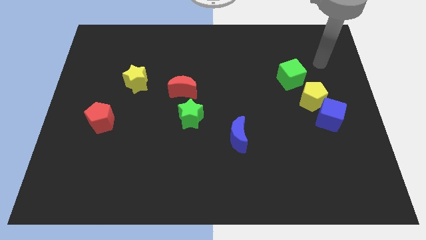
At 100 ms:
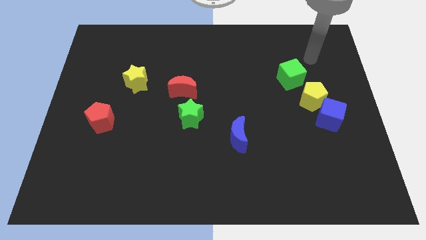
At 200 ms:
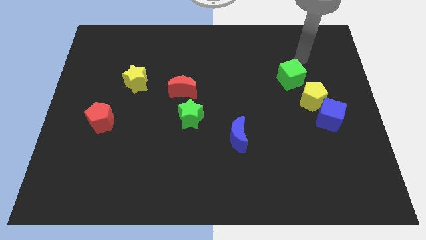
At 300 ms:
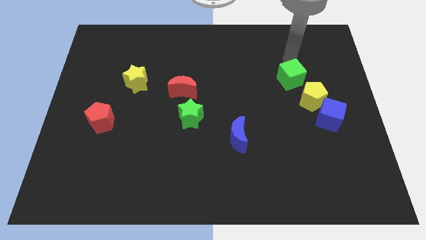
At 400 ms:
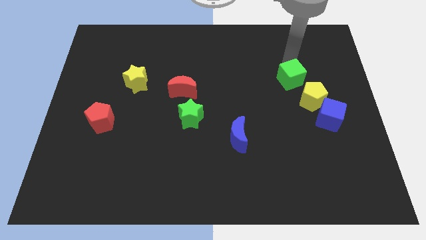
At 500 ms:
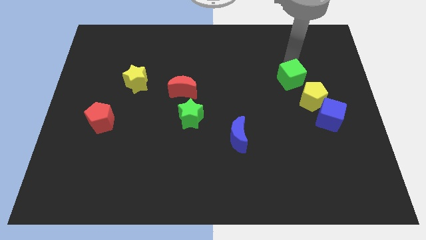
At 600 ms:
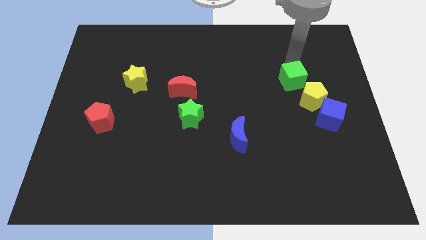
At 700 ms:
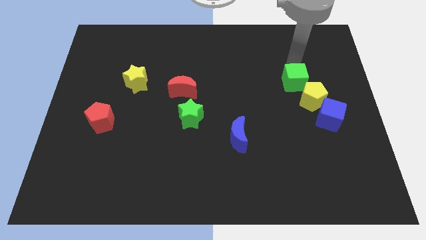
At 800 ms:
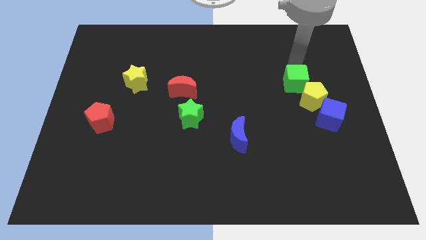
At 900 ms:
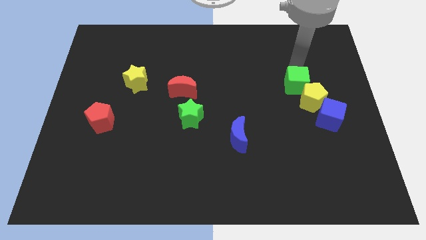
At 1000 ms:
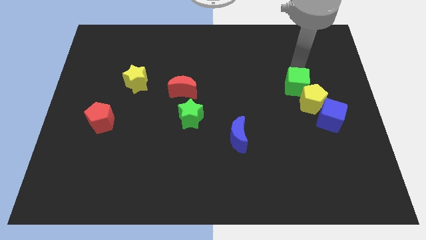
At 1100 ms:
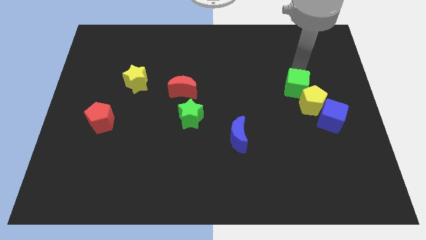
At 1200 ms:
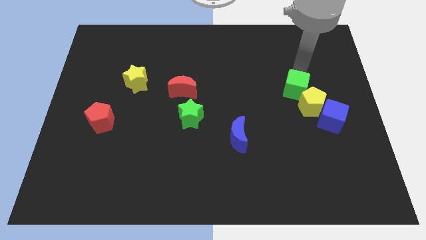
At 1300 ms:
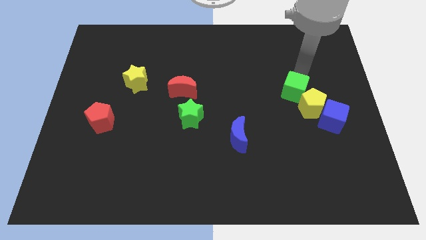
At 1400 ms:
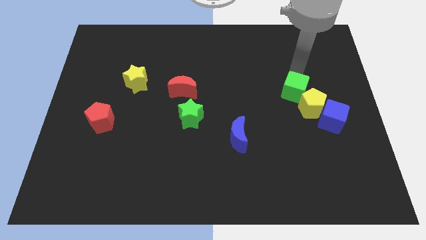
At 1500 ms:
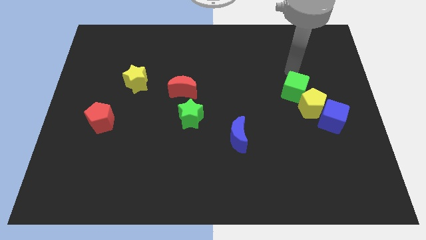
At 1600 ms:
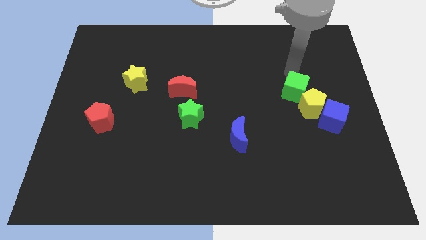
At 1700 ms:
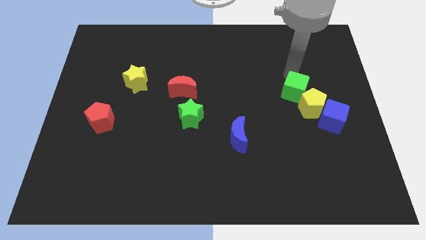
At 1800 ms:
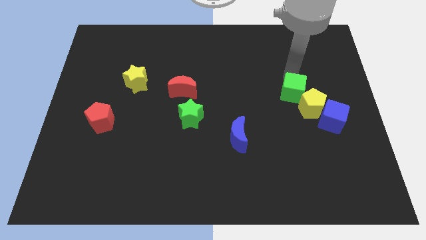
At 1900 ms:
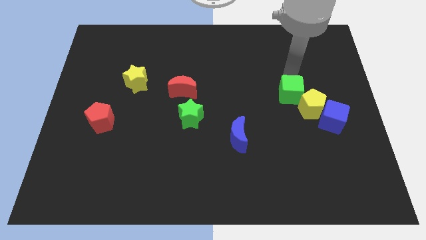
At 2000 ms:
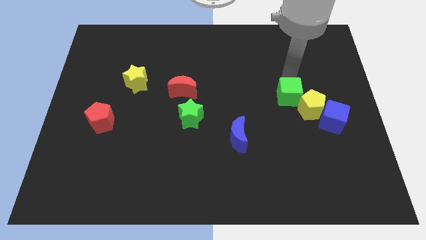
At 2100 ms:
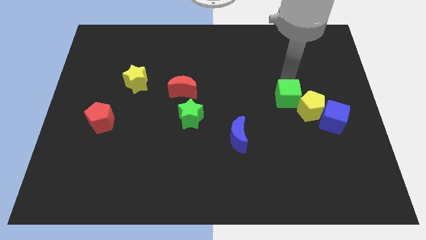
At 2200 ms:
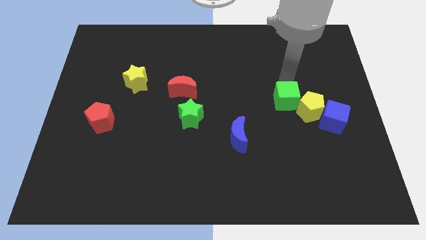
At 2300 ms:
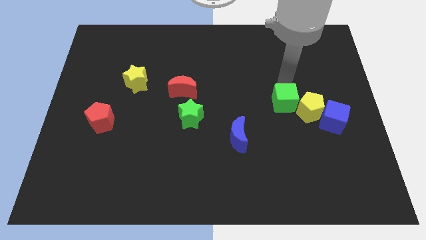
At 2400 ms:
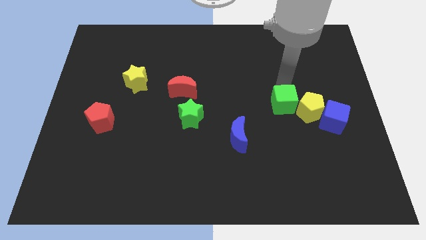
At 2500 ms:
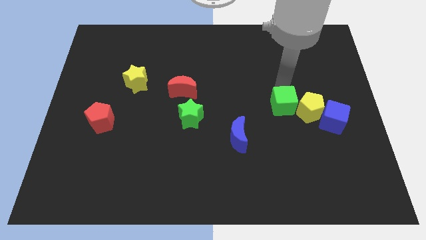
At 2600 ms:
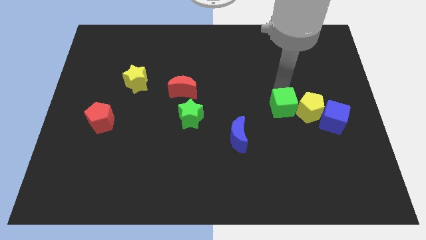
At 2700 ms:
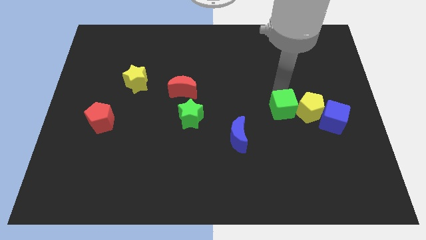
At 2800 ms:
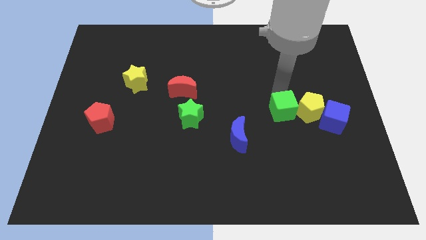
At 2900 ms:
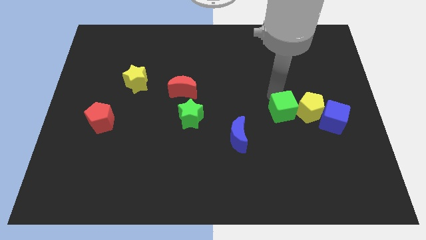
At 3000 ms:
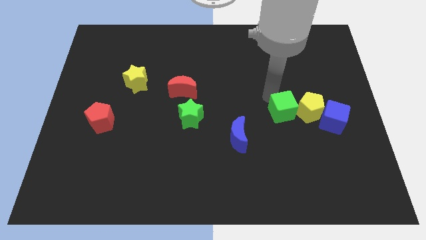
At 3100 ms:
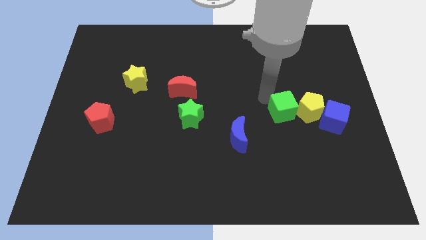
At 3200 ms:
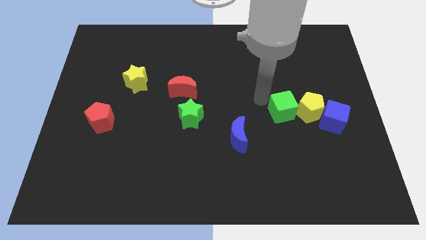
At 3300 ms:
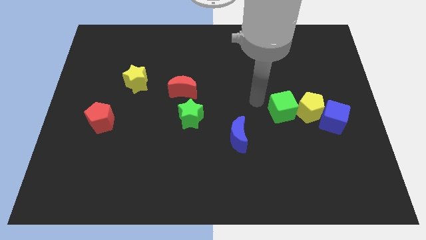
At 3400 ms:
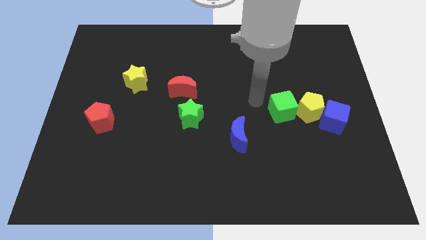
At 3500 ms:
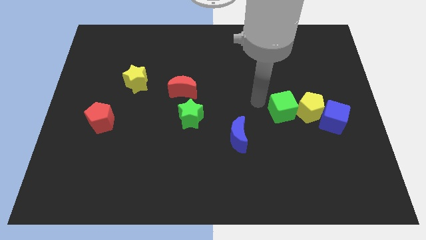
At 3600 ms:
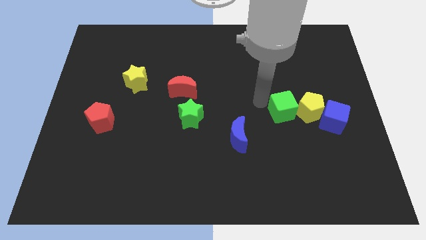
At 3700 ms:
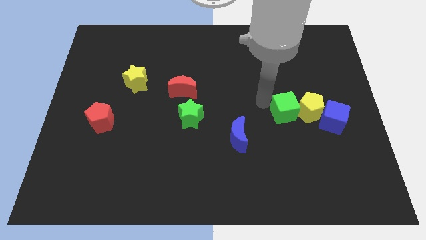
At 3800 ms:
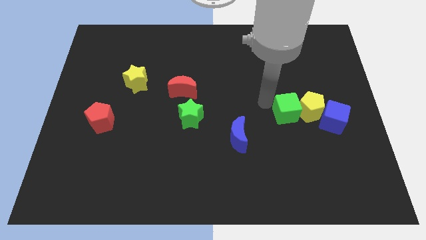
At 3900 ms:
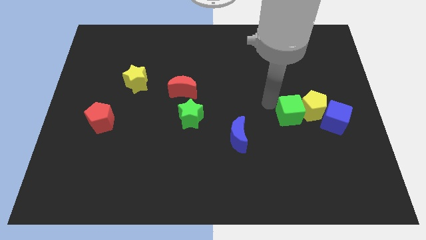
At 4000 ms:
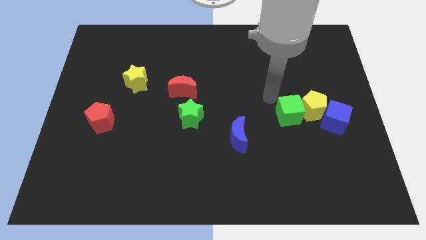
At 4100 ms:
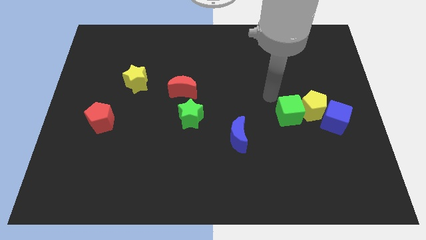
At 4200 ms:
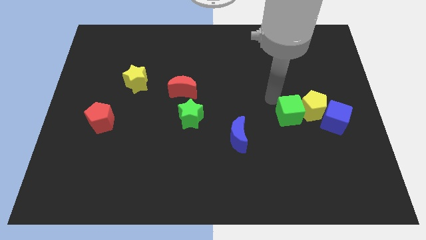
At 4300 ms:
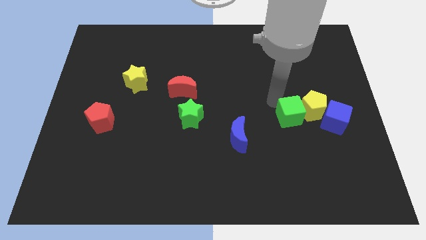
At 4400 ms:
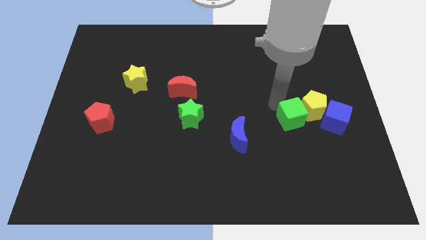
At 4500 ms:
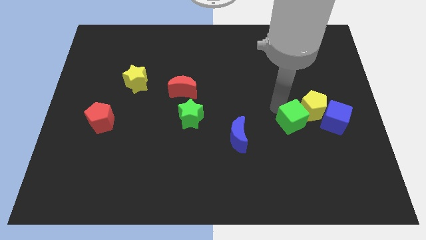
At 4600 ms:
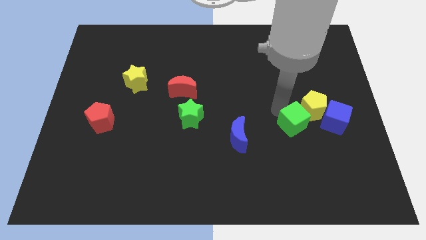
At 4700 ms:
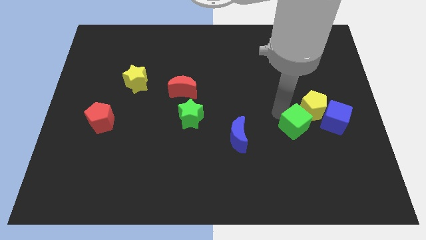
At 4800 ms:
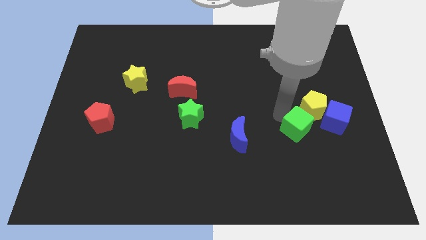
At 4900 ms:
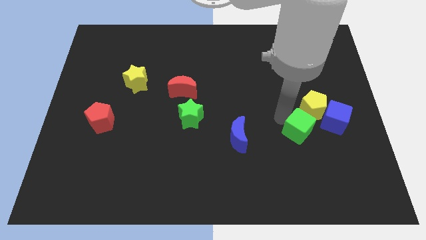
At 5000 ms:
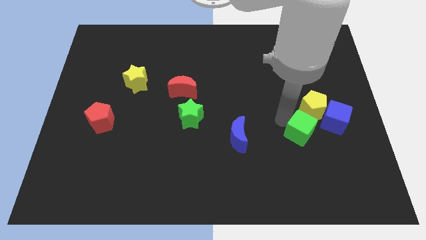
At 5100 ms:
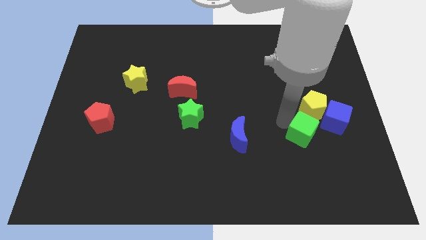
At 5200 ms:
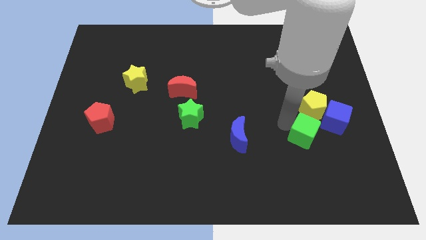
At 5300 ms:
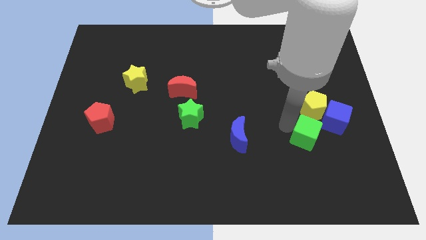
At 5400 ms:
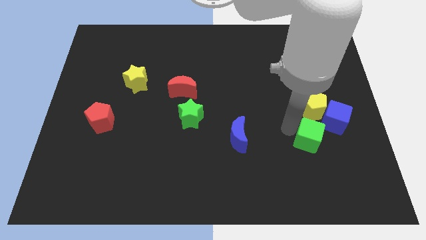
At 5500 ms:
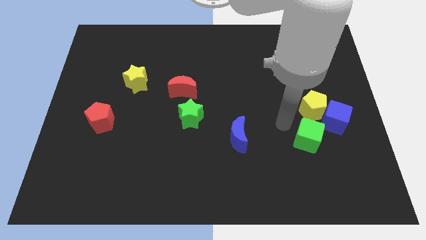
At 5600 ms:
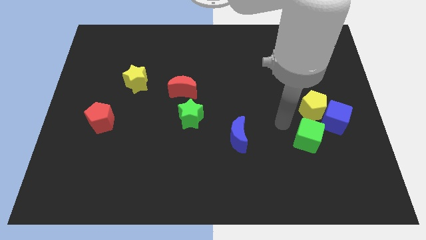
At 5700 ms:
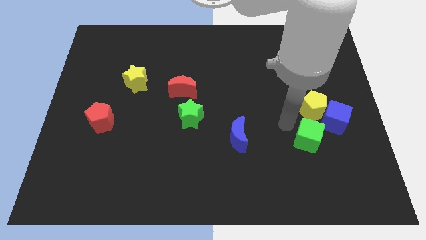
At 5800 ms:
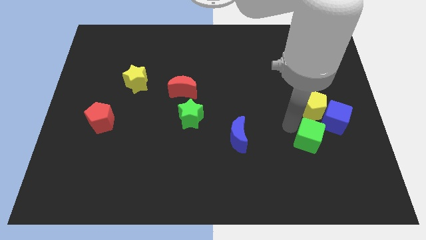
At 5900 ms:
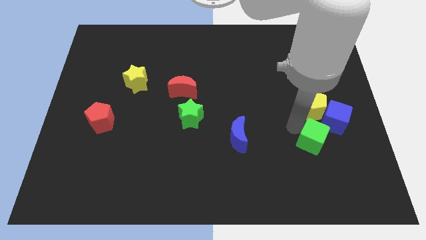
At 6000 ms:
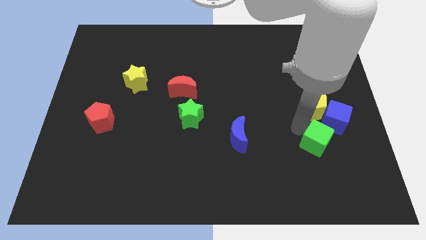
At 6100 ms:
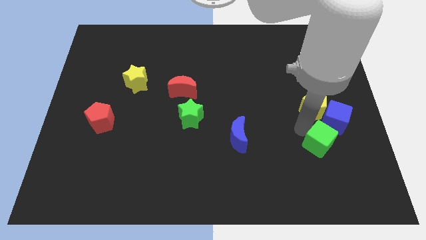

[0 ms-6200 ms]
slide the green cube below the blue cube

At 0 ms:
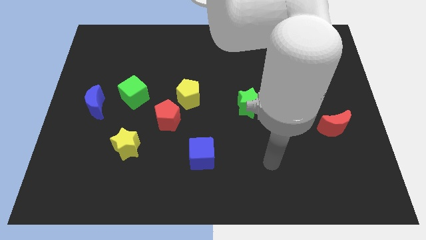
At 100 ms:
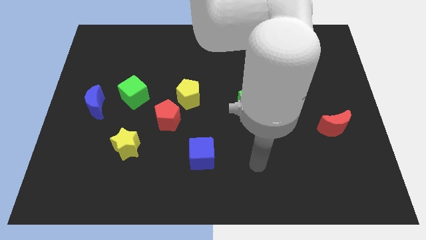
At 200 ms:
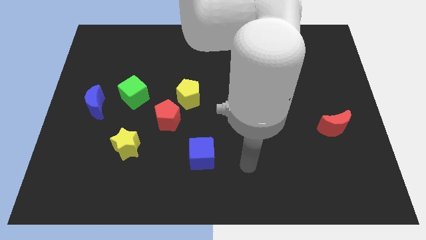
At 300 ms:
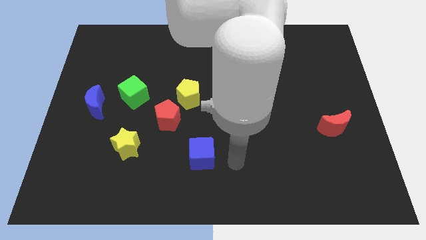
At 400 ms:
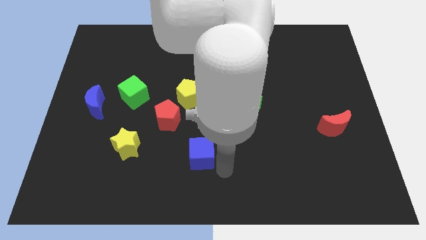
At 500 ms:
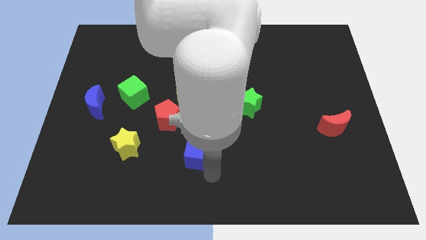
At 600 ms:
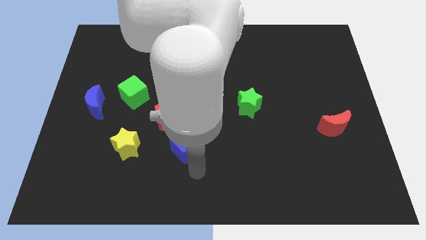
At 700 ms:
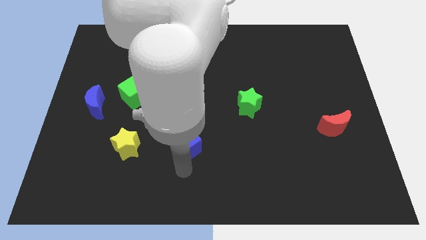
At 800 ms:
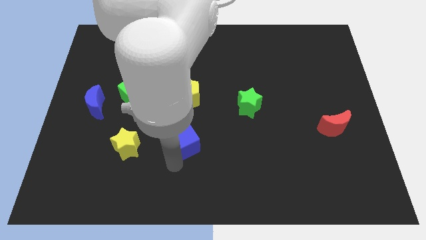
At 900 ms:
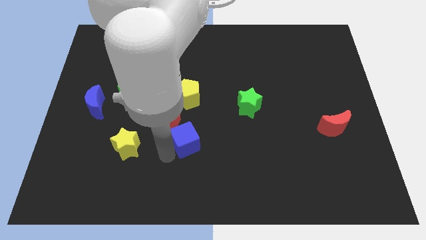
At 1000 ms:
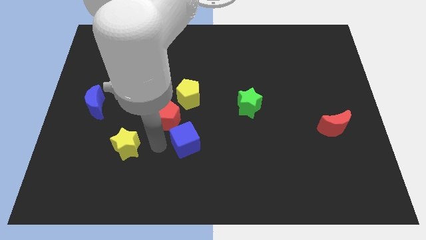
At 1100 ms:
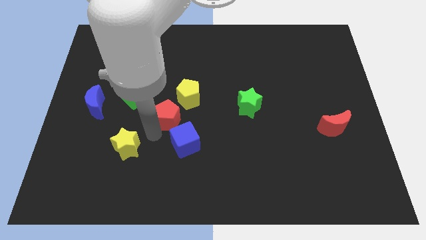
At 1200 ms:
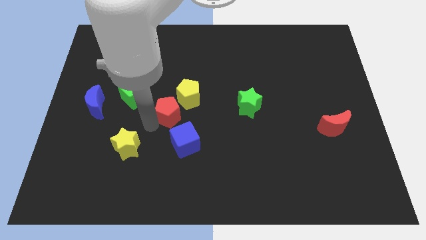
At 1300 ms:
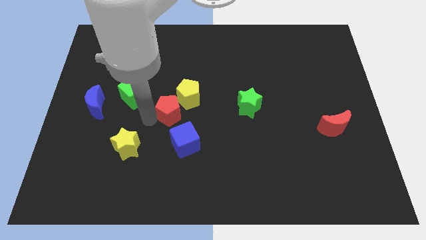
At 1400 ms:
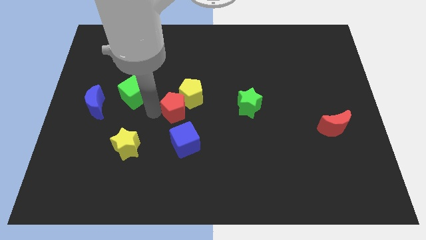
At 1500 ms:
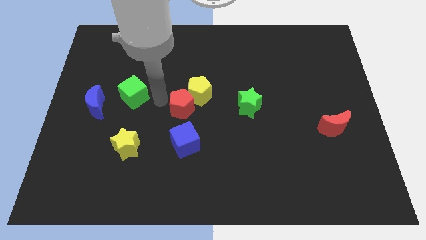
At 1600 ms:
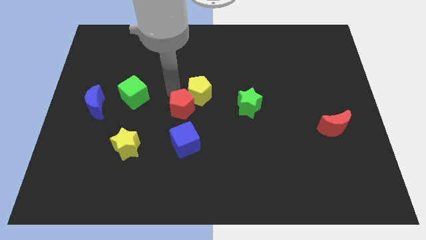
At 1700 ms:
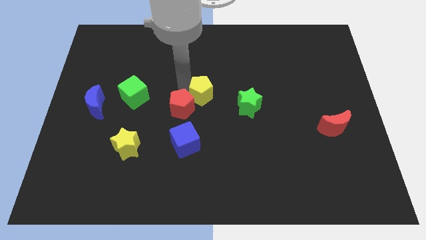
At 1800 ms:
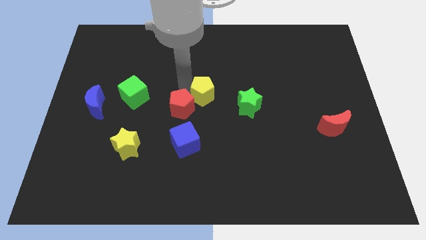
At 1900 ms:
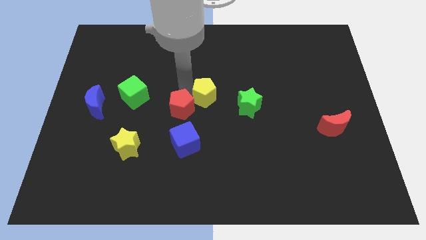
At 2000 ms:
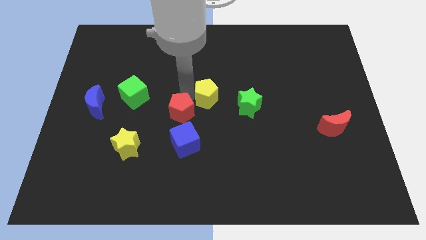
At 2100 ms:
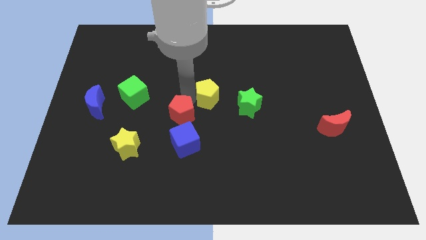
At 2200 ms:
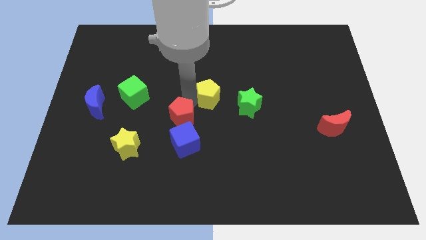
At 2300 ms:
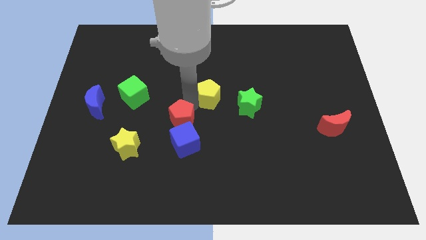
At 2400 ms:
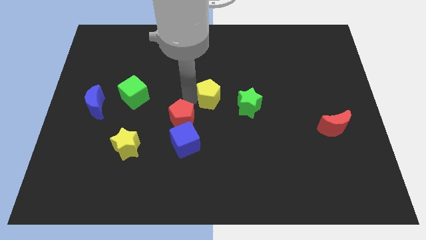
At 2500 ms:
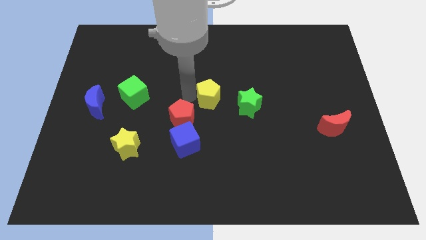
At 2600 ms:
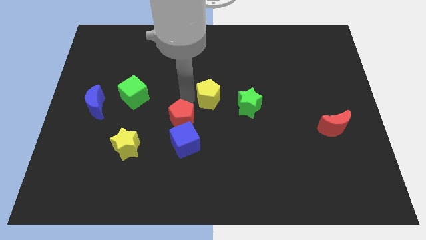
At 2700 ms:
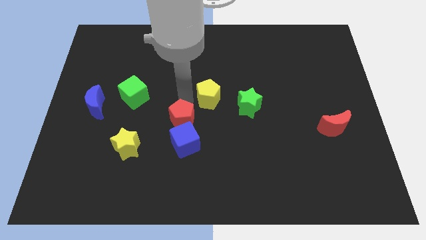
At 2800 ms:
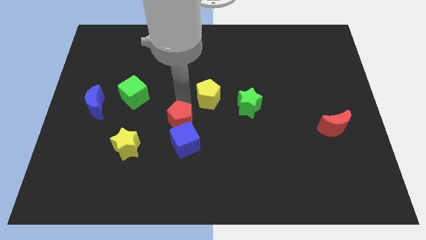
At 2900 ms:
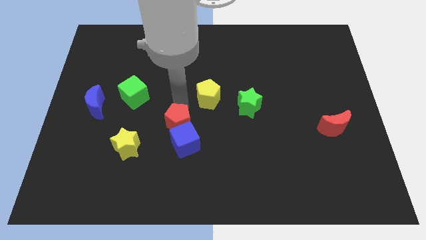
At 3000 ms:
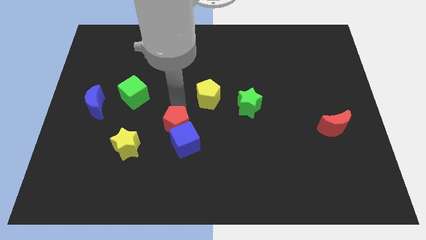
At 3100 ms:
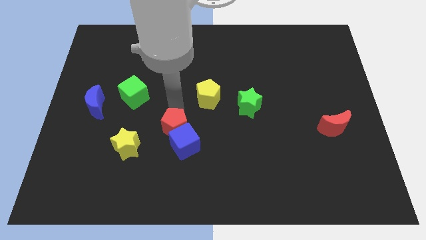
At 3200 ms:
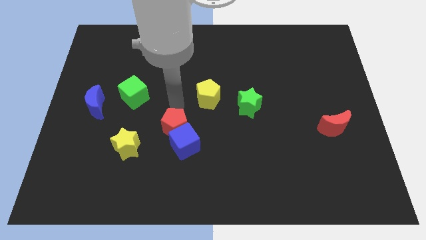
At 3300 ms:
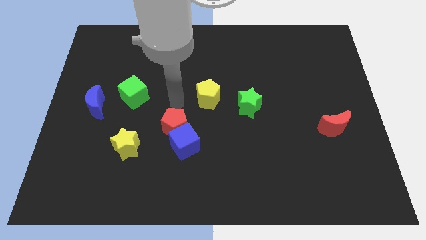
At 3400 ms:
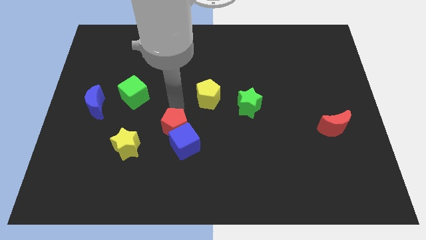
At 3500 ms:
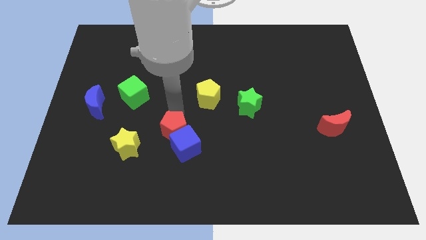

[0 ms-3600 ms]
move the red pentagon to the right of the yellow star
